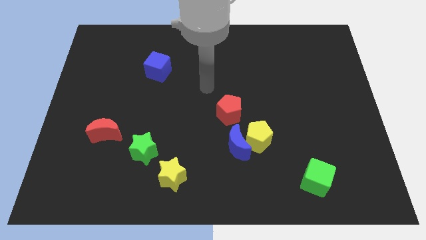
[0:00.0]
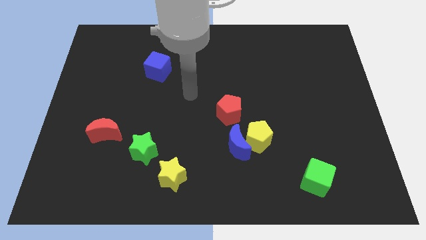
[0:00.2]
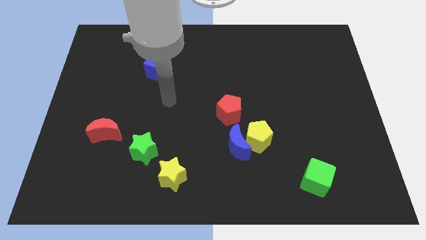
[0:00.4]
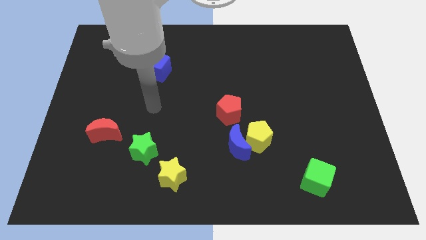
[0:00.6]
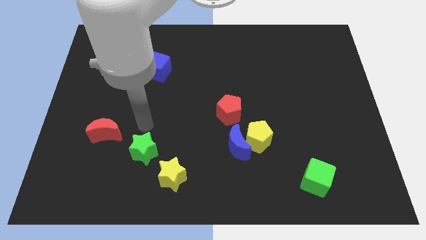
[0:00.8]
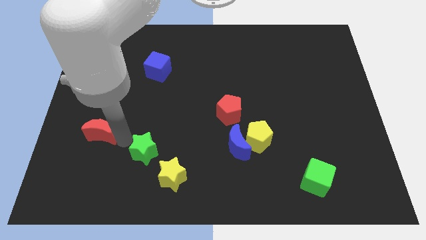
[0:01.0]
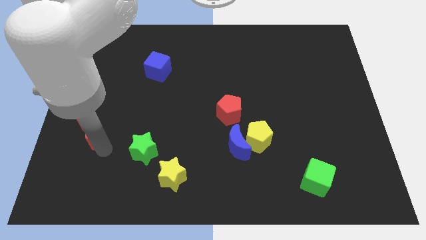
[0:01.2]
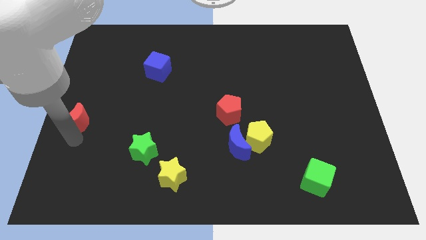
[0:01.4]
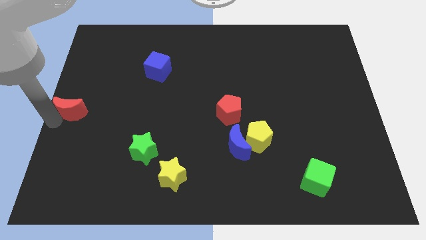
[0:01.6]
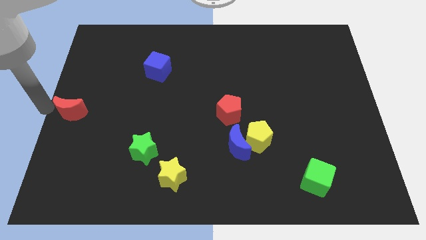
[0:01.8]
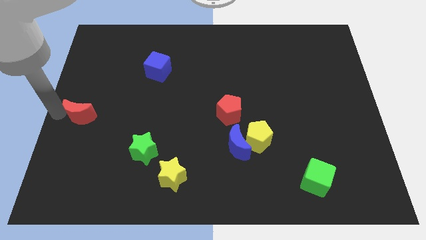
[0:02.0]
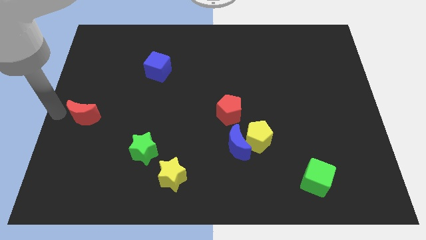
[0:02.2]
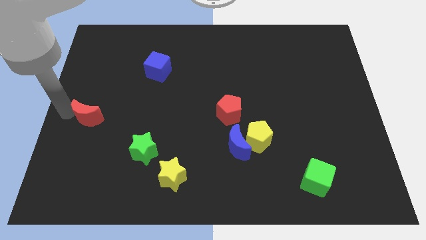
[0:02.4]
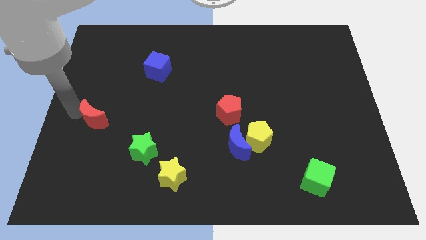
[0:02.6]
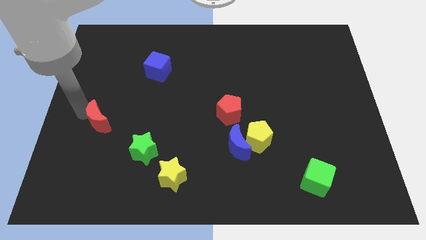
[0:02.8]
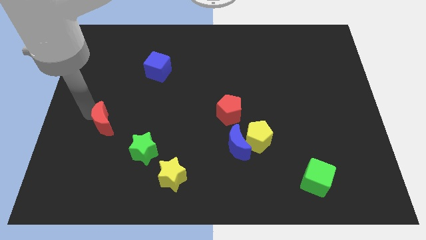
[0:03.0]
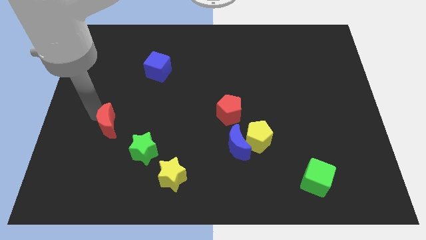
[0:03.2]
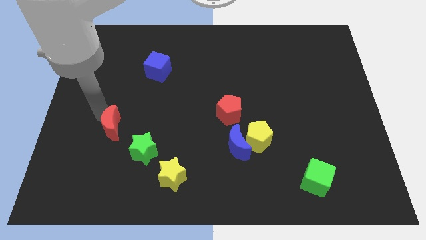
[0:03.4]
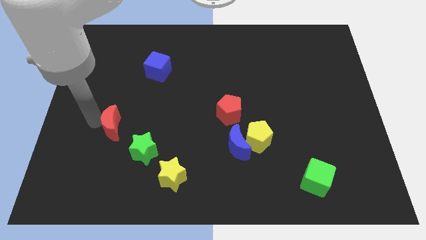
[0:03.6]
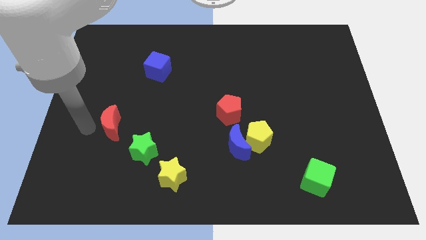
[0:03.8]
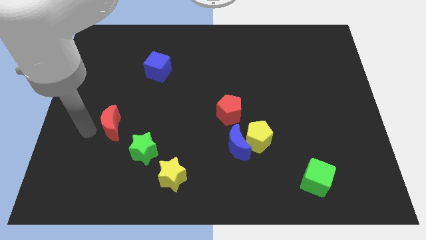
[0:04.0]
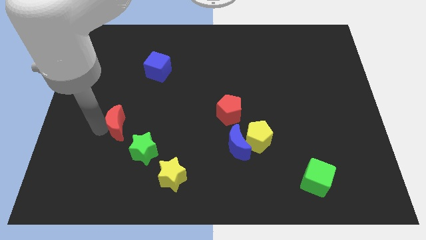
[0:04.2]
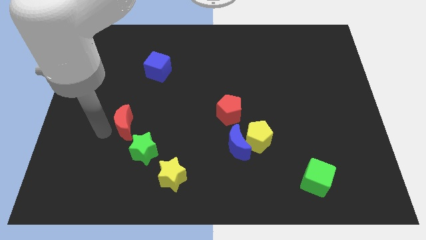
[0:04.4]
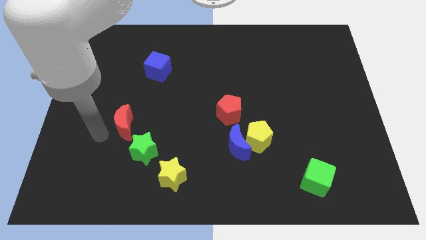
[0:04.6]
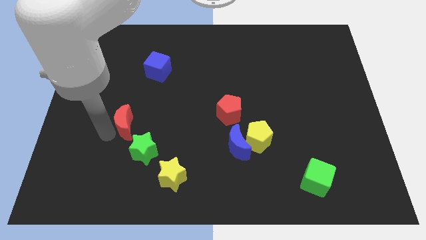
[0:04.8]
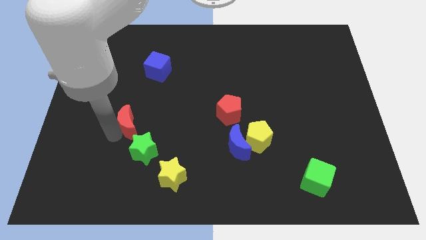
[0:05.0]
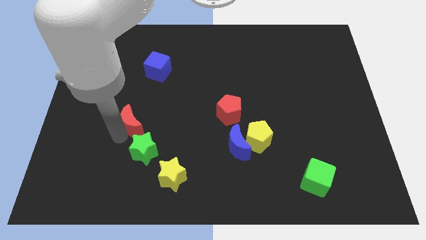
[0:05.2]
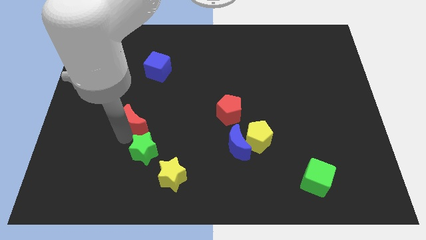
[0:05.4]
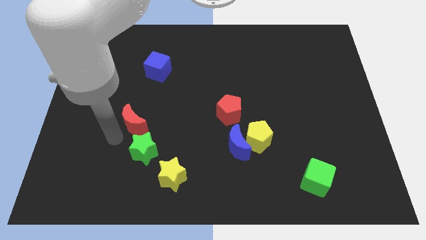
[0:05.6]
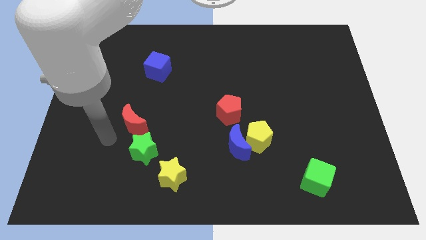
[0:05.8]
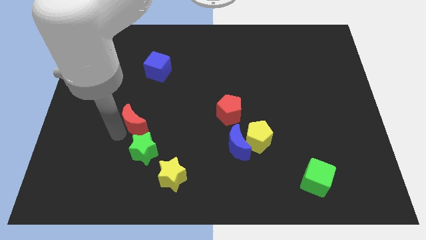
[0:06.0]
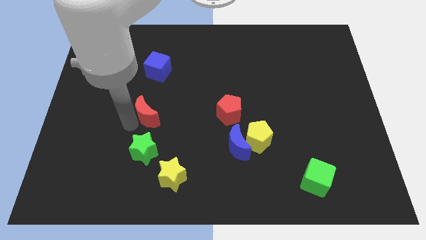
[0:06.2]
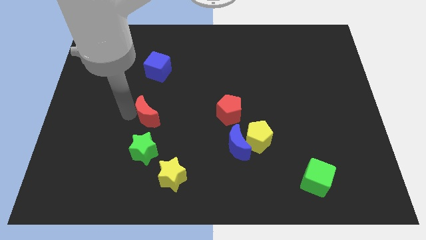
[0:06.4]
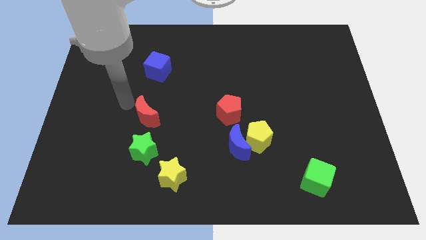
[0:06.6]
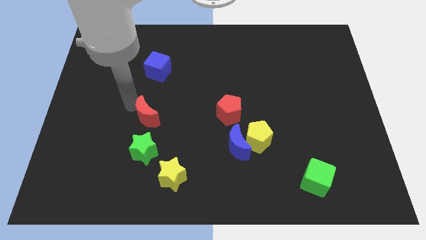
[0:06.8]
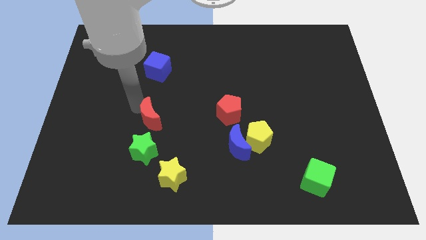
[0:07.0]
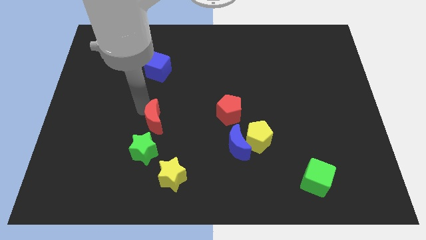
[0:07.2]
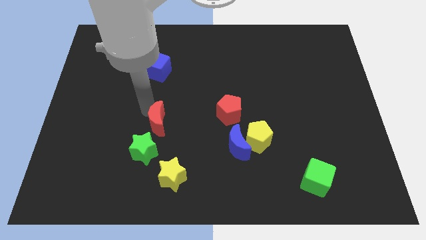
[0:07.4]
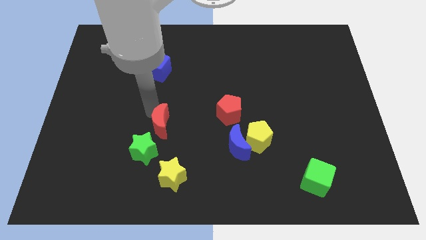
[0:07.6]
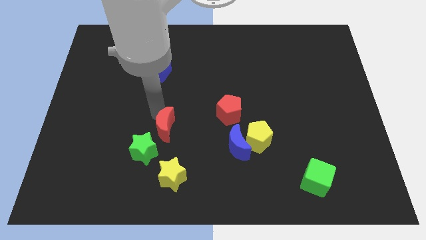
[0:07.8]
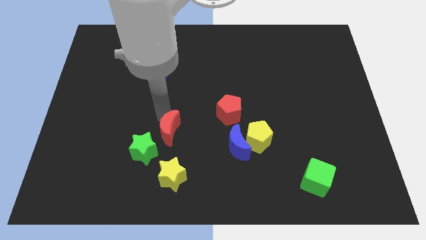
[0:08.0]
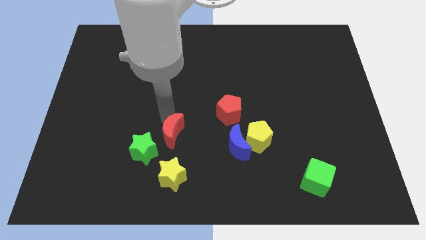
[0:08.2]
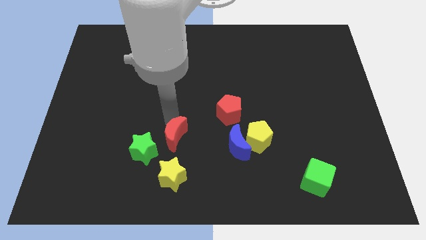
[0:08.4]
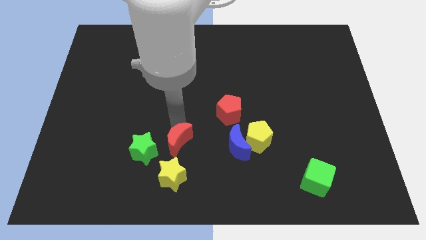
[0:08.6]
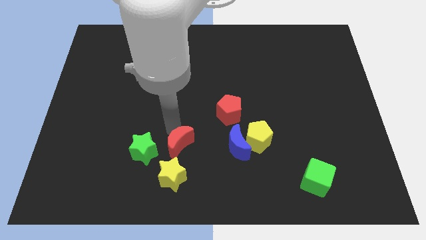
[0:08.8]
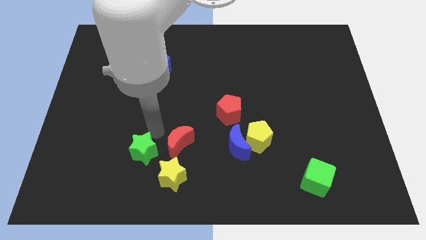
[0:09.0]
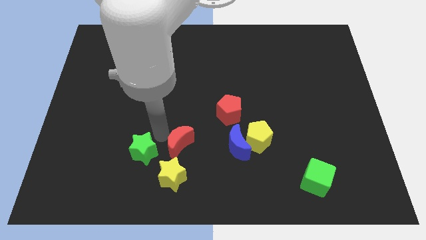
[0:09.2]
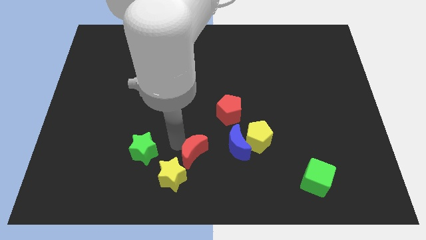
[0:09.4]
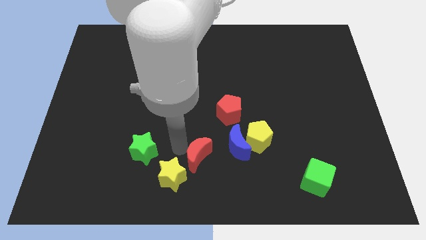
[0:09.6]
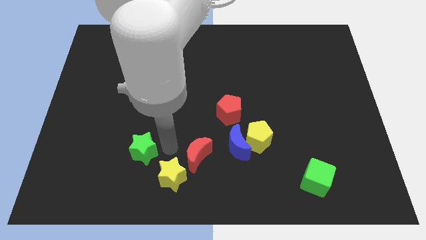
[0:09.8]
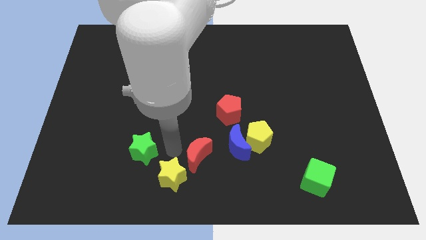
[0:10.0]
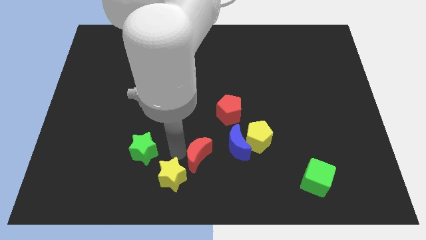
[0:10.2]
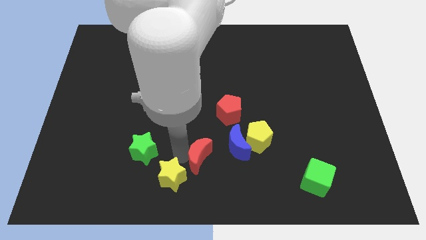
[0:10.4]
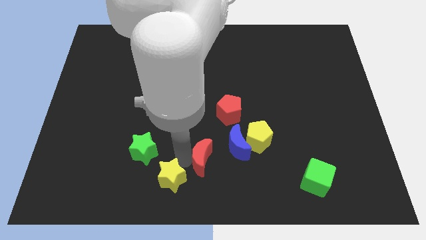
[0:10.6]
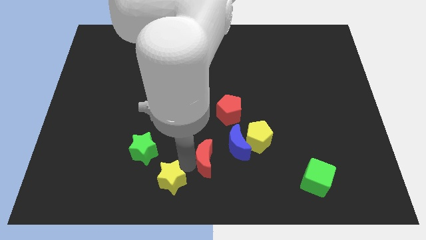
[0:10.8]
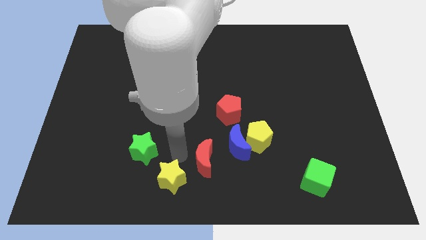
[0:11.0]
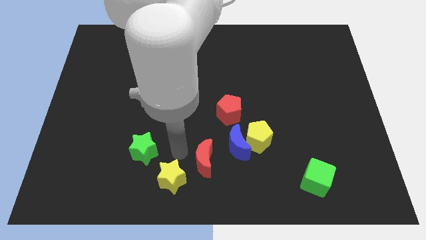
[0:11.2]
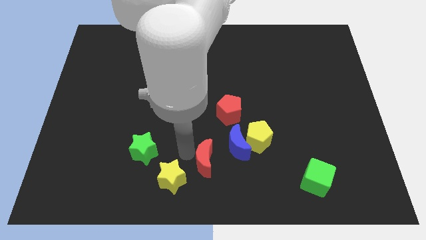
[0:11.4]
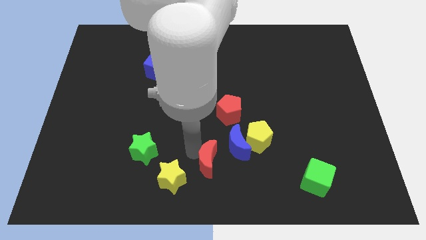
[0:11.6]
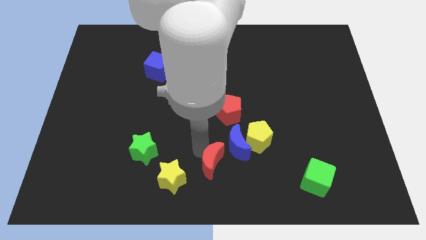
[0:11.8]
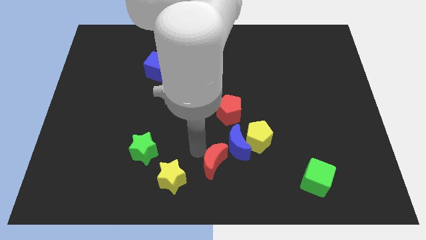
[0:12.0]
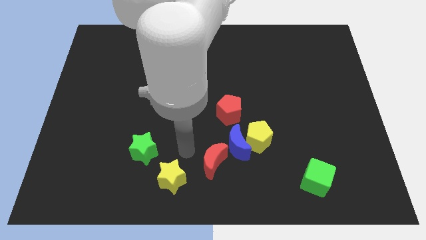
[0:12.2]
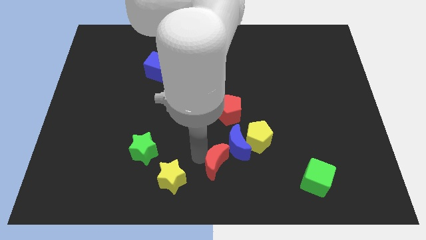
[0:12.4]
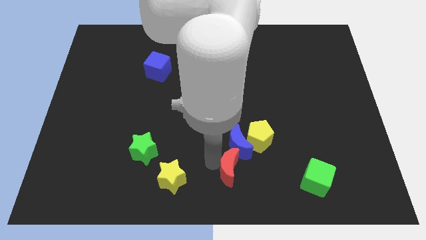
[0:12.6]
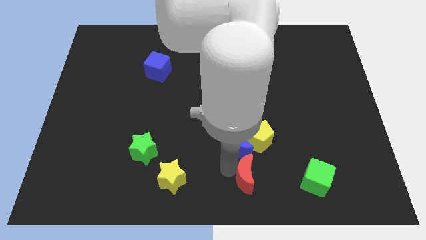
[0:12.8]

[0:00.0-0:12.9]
push the red moon below the yellow pentagon

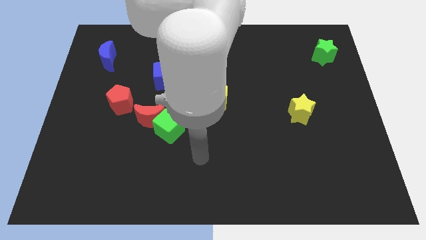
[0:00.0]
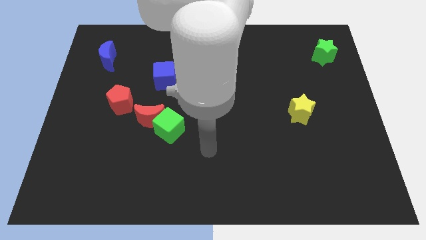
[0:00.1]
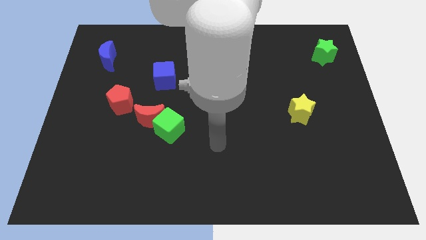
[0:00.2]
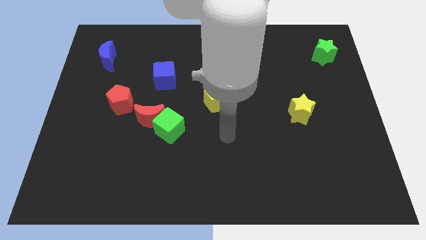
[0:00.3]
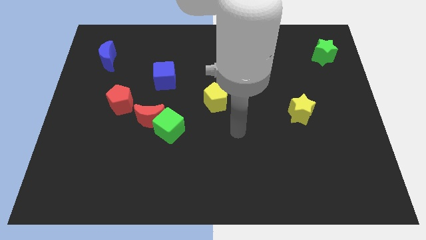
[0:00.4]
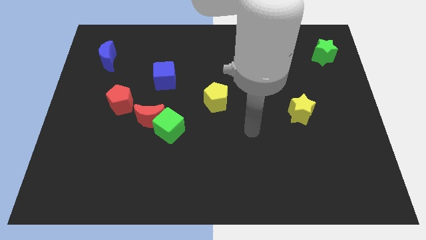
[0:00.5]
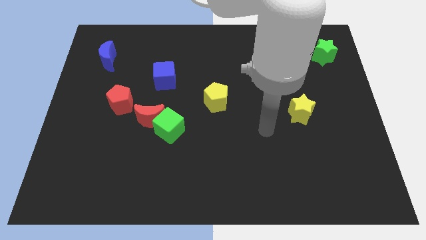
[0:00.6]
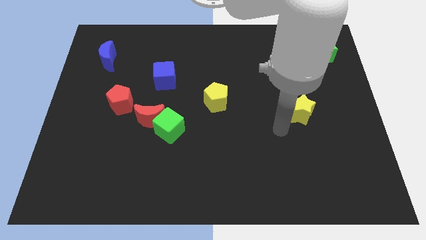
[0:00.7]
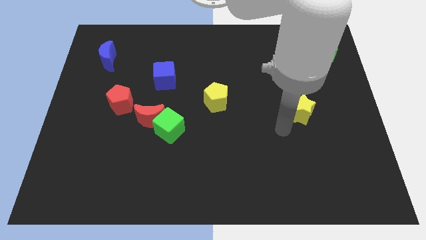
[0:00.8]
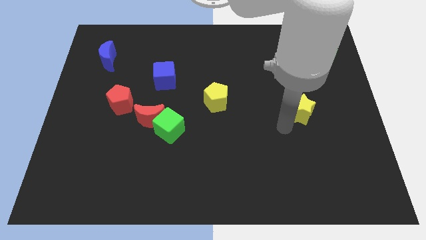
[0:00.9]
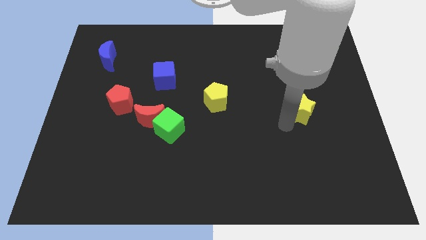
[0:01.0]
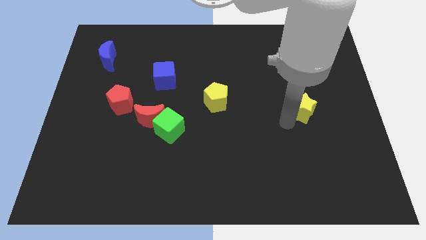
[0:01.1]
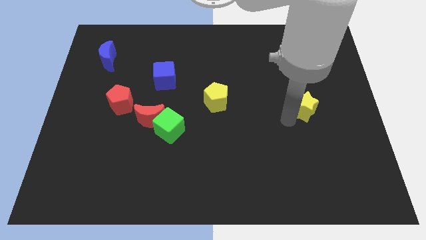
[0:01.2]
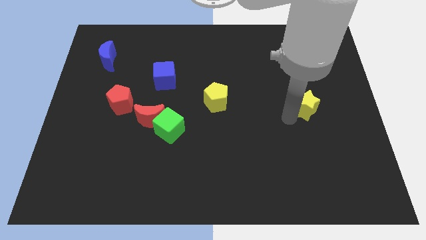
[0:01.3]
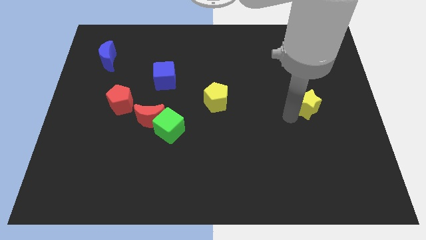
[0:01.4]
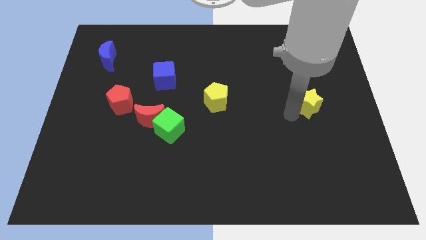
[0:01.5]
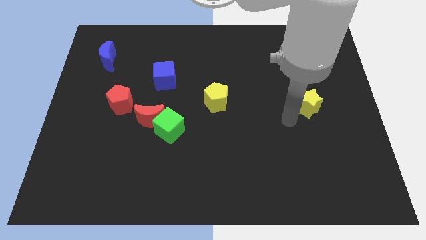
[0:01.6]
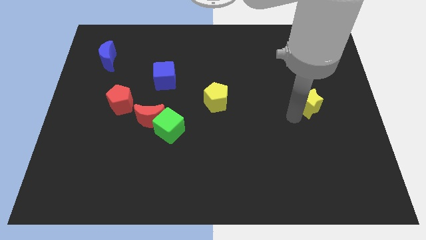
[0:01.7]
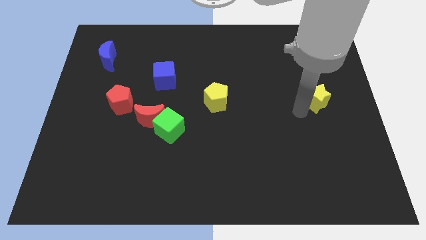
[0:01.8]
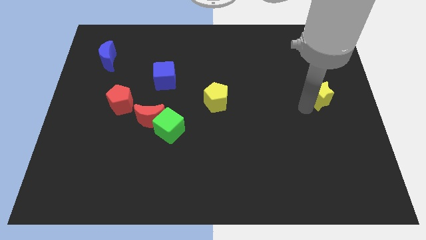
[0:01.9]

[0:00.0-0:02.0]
push the yellow star to the bottom of the green star
